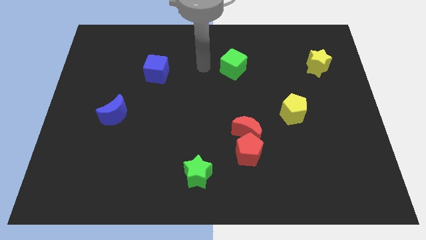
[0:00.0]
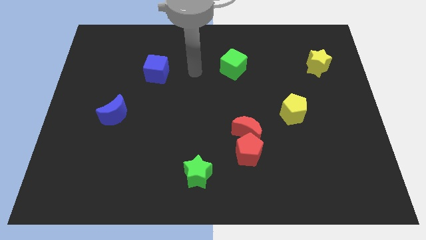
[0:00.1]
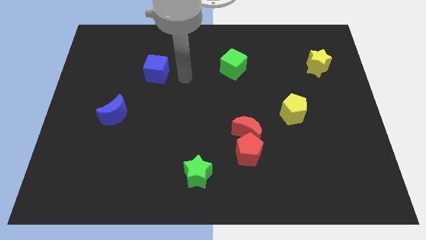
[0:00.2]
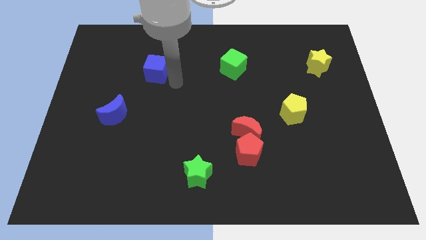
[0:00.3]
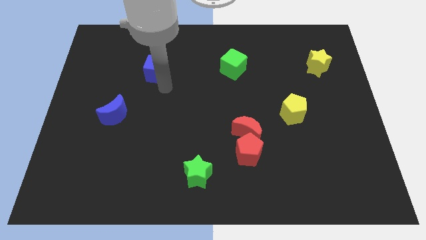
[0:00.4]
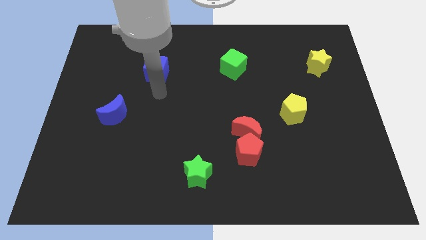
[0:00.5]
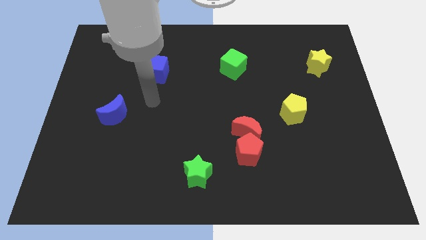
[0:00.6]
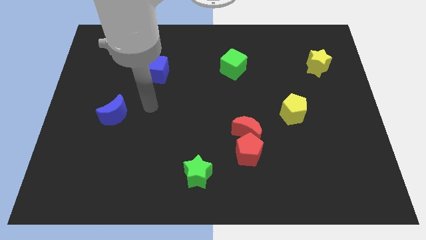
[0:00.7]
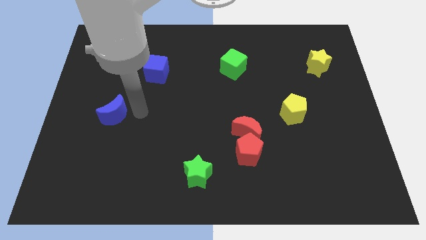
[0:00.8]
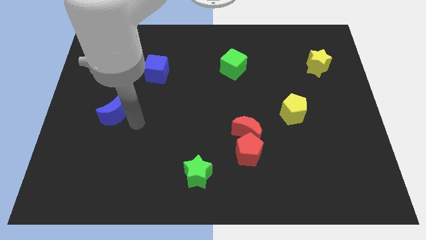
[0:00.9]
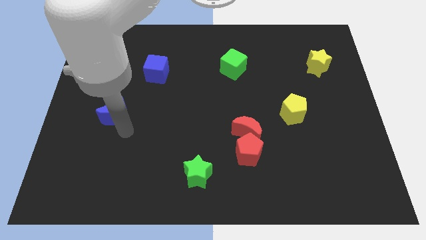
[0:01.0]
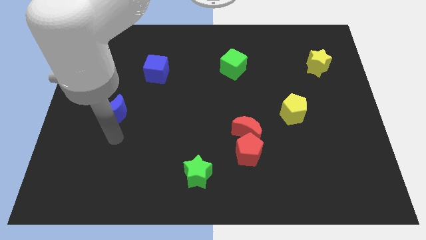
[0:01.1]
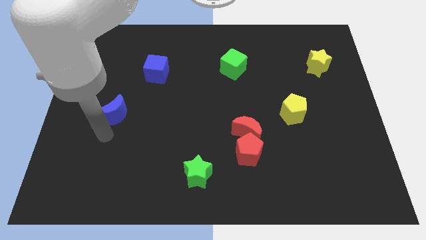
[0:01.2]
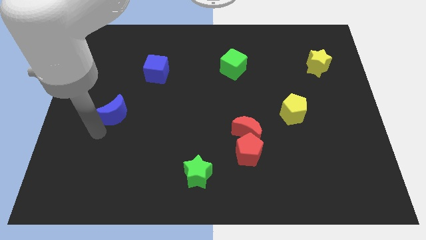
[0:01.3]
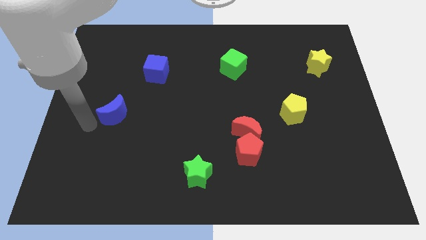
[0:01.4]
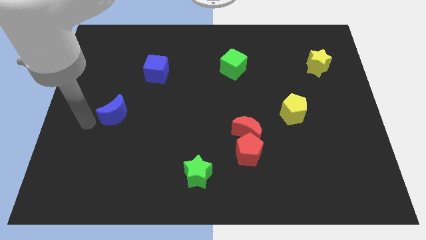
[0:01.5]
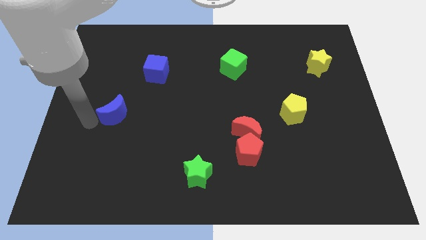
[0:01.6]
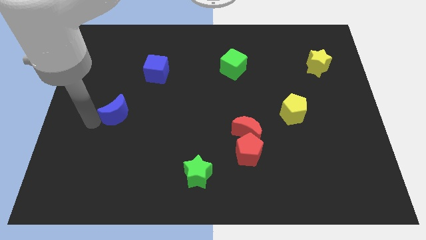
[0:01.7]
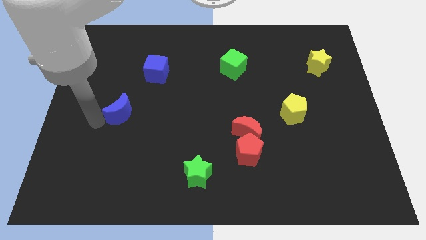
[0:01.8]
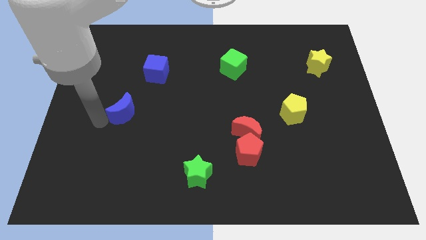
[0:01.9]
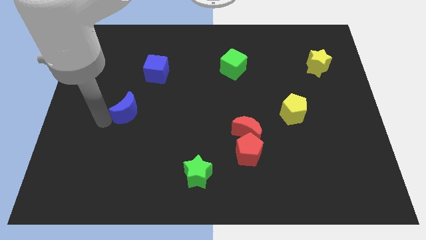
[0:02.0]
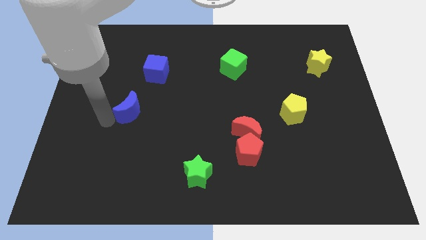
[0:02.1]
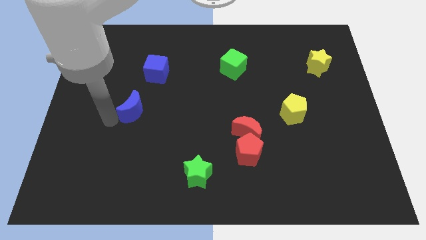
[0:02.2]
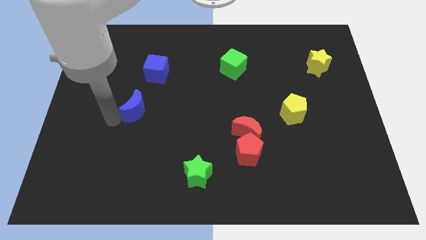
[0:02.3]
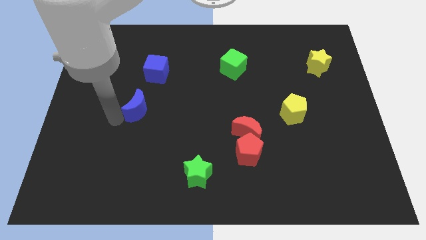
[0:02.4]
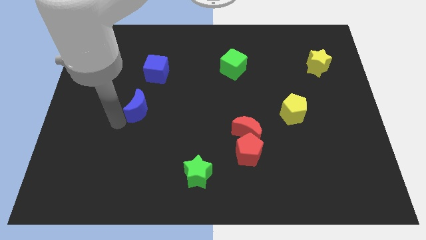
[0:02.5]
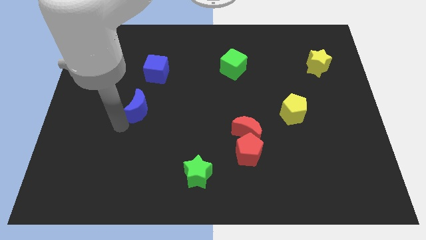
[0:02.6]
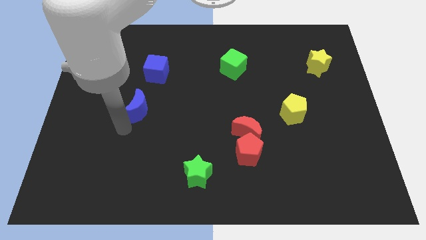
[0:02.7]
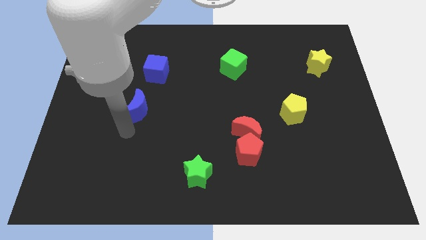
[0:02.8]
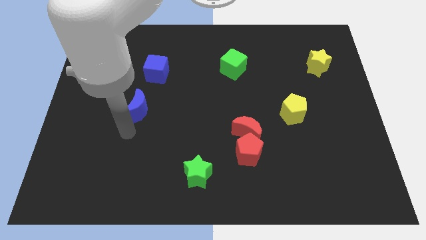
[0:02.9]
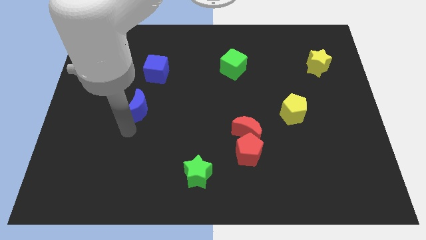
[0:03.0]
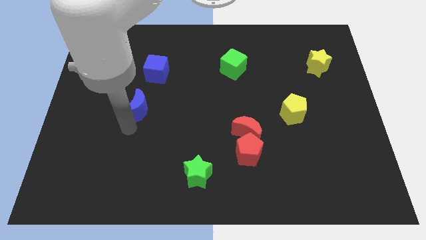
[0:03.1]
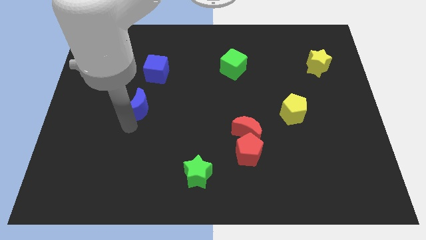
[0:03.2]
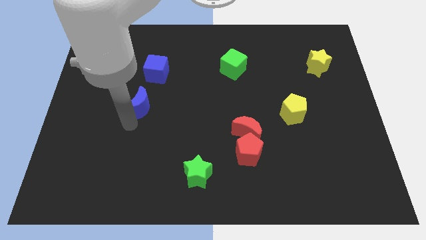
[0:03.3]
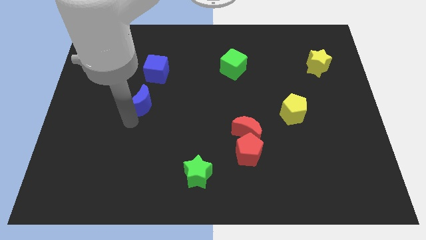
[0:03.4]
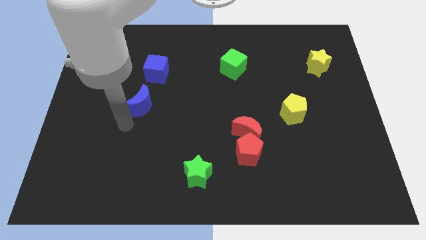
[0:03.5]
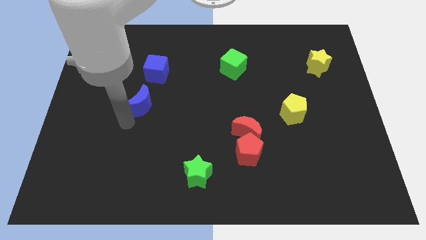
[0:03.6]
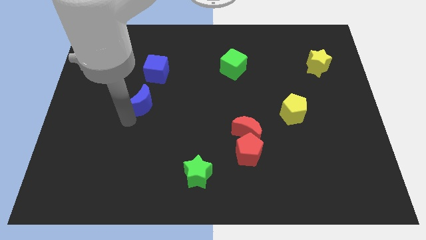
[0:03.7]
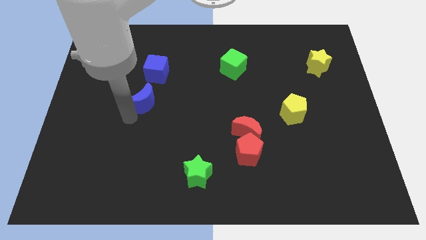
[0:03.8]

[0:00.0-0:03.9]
move the blue moon slightly diagonally up and to the right

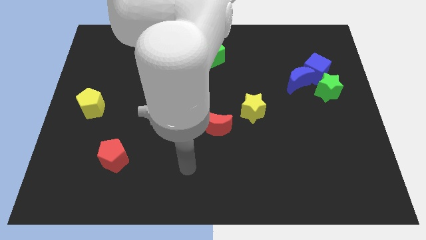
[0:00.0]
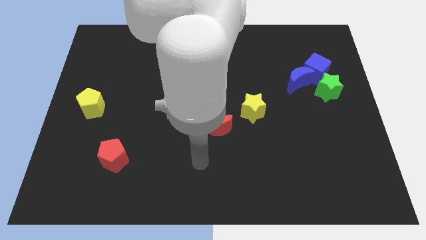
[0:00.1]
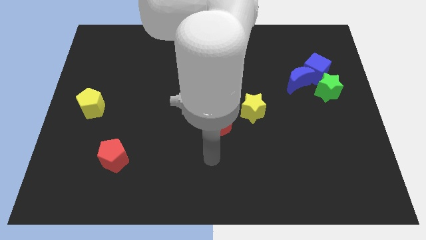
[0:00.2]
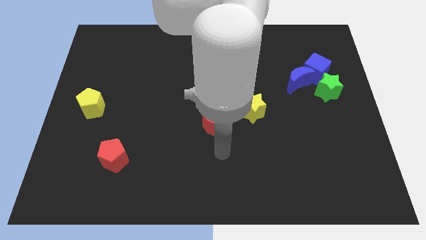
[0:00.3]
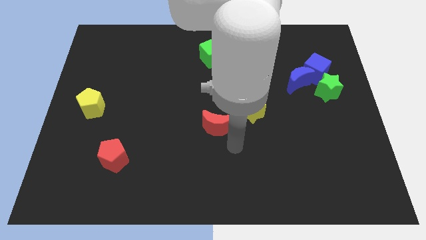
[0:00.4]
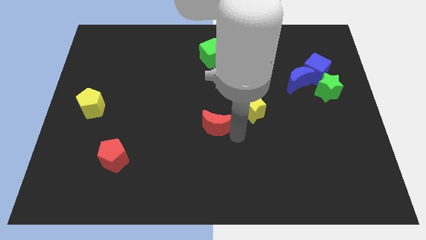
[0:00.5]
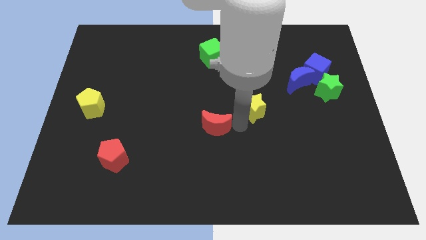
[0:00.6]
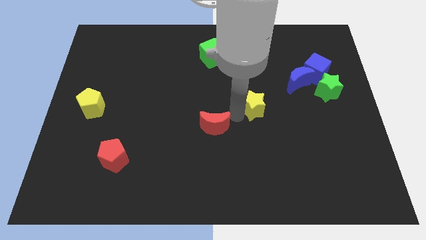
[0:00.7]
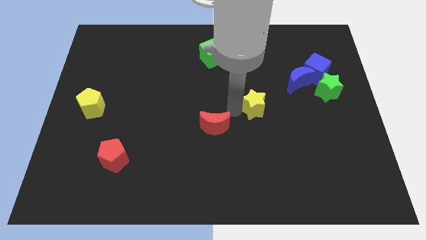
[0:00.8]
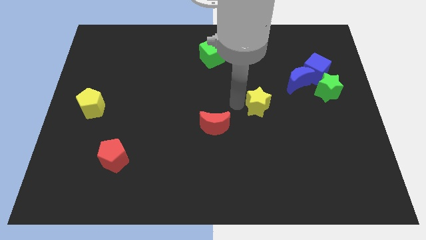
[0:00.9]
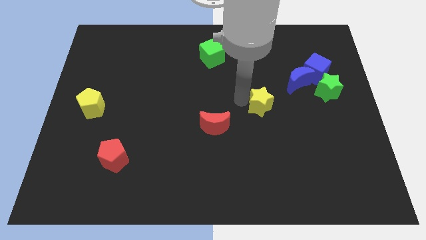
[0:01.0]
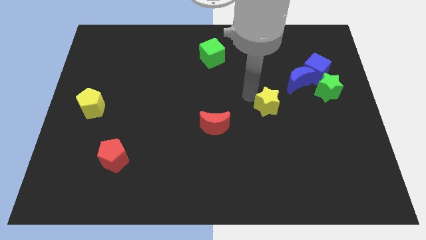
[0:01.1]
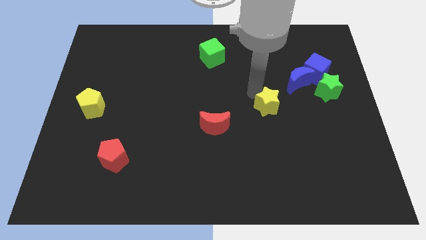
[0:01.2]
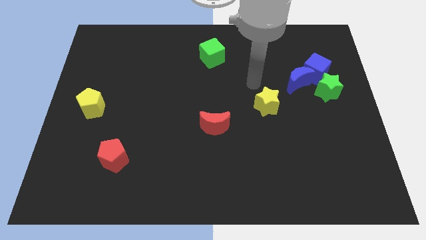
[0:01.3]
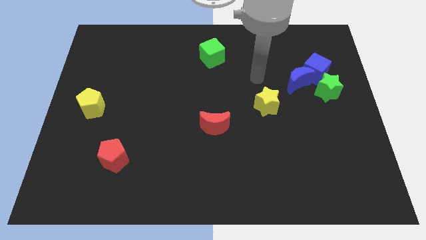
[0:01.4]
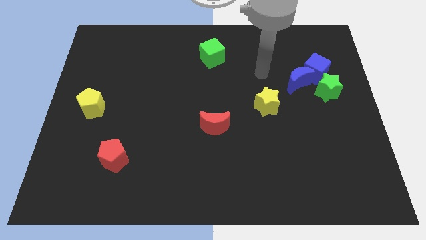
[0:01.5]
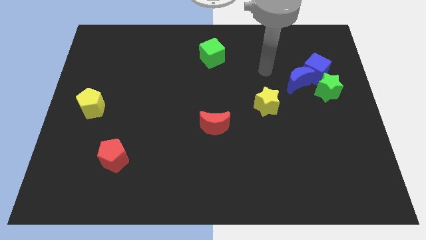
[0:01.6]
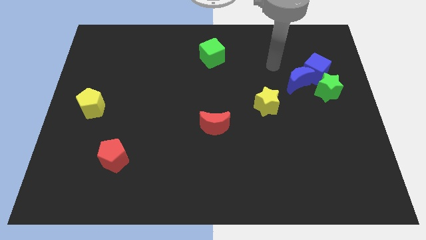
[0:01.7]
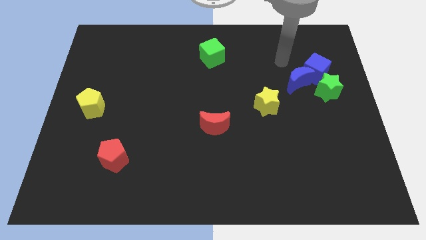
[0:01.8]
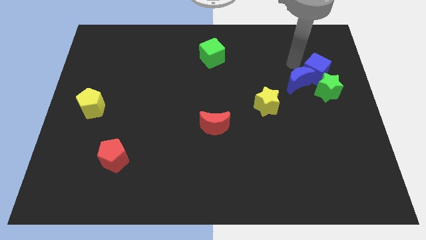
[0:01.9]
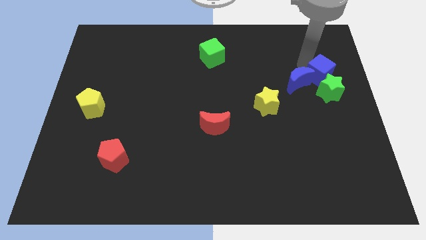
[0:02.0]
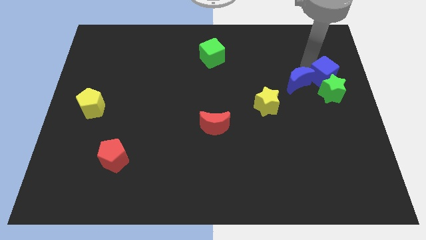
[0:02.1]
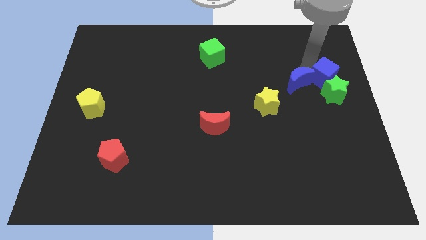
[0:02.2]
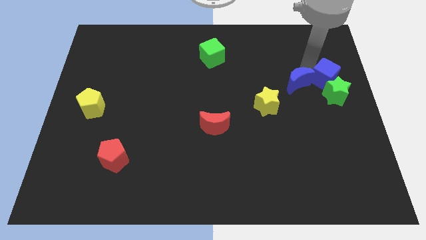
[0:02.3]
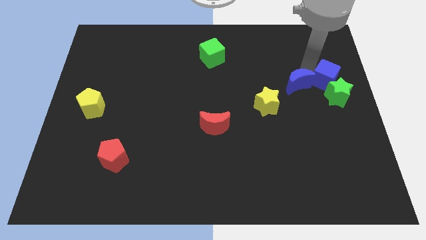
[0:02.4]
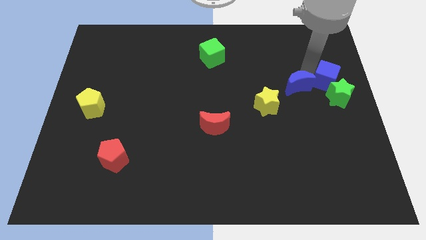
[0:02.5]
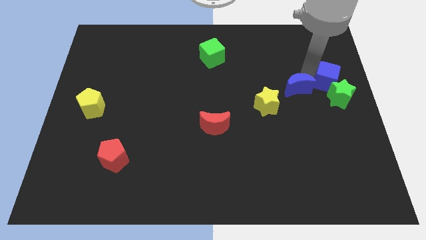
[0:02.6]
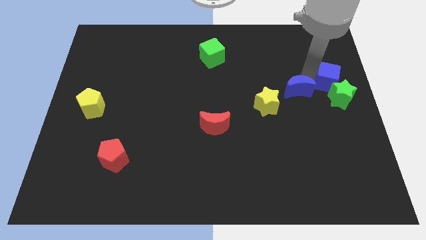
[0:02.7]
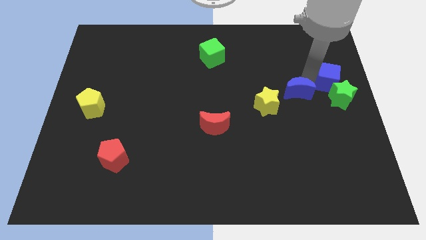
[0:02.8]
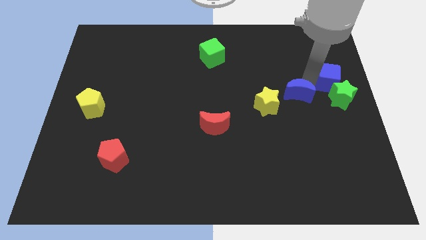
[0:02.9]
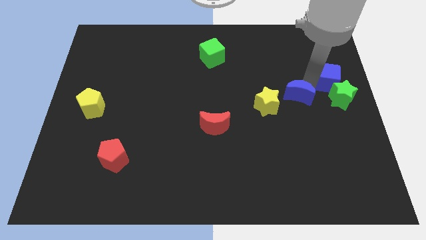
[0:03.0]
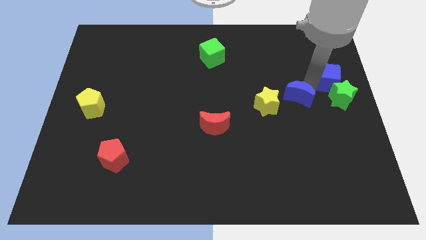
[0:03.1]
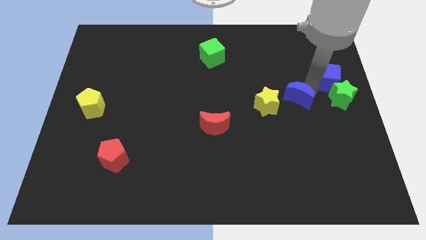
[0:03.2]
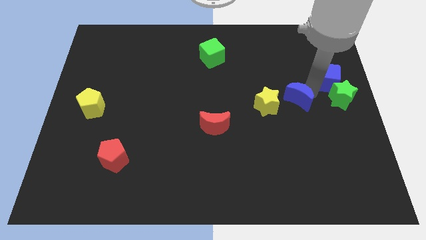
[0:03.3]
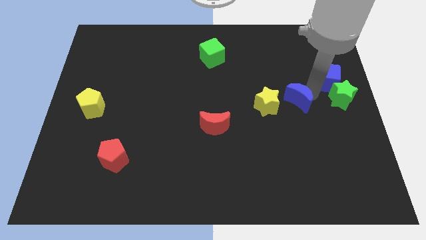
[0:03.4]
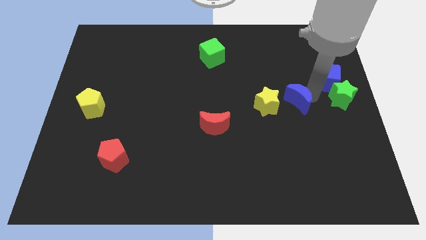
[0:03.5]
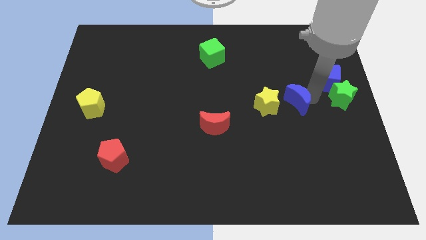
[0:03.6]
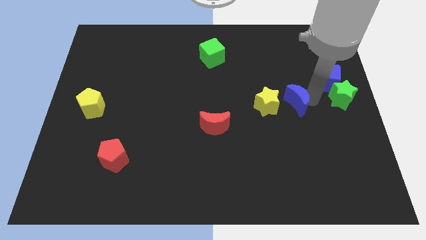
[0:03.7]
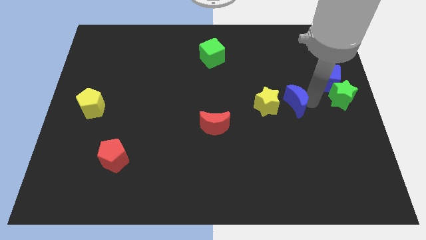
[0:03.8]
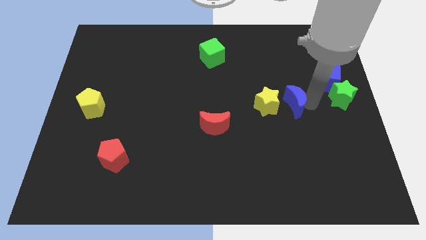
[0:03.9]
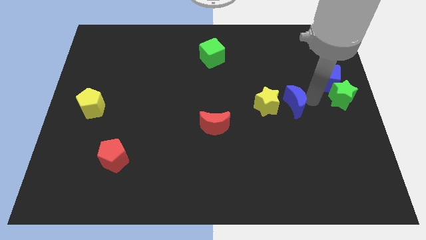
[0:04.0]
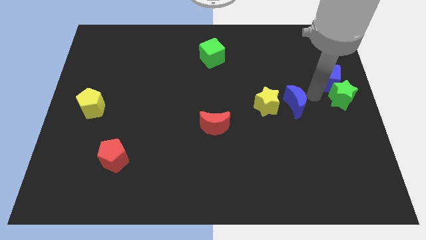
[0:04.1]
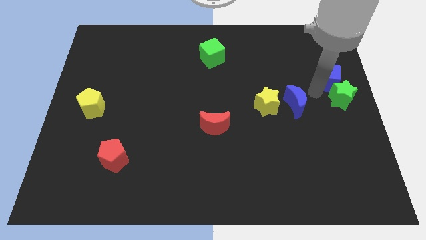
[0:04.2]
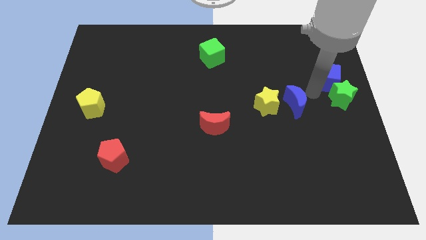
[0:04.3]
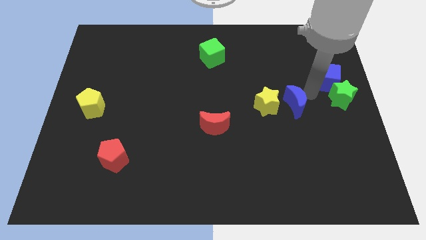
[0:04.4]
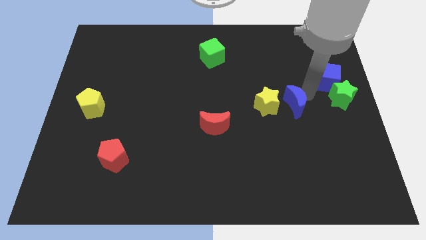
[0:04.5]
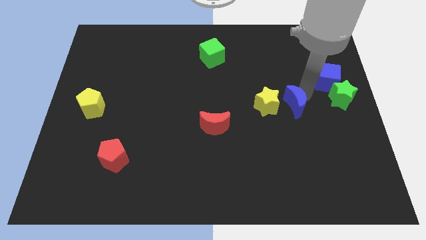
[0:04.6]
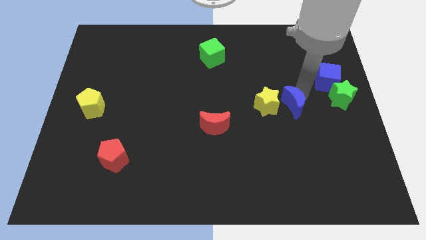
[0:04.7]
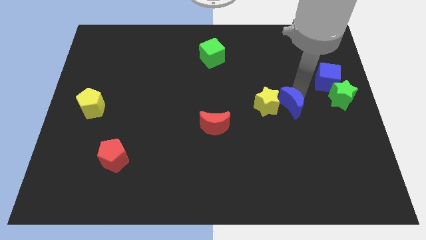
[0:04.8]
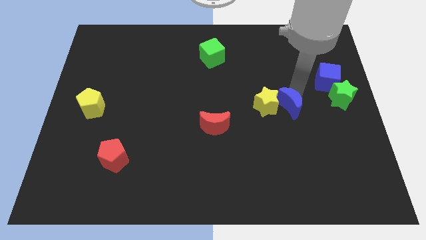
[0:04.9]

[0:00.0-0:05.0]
slightly push the blue moon down and to the left
